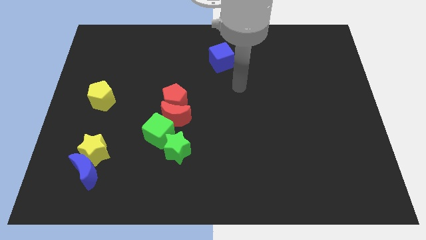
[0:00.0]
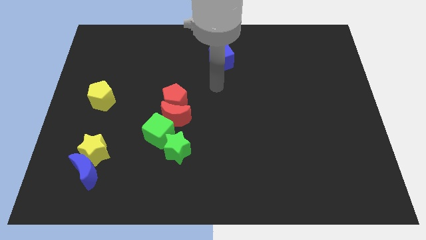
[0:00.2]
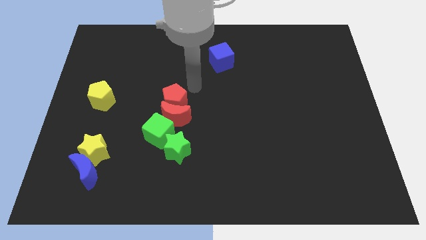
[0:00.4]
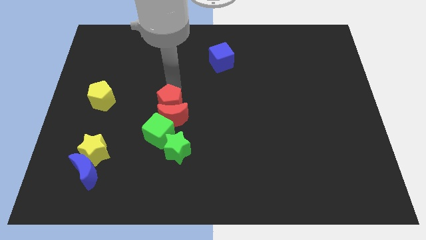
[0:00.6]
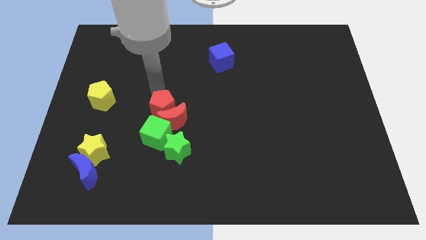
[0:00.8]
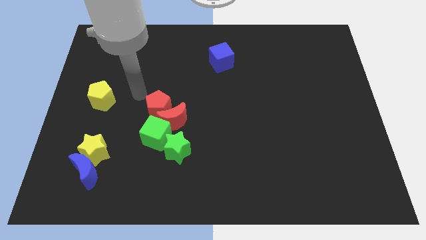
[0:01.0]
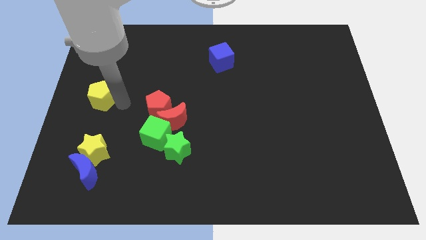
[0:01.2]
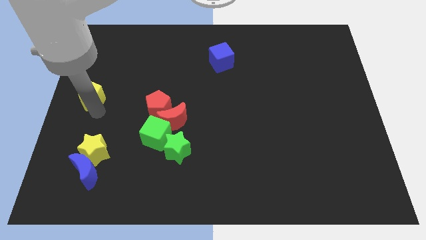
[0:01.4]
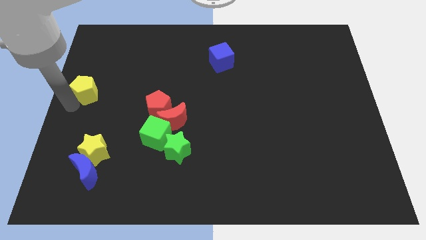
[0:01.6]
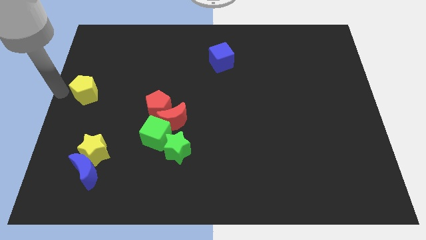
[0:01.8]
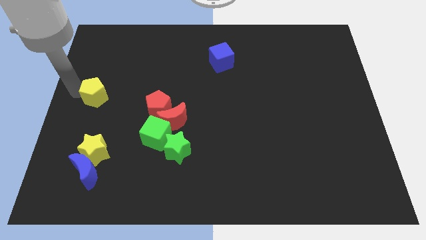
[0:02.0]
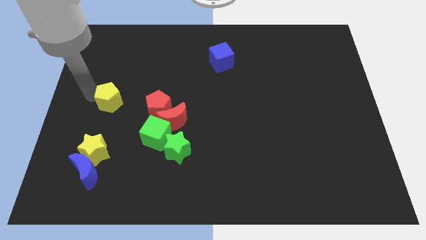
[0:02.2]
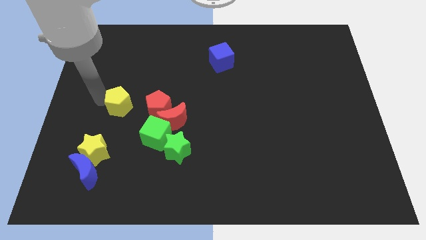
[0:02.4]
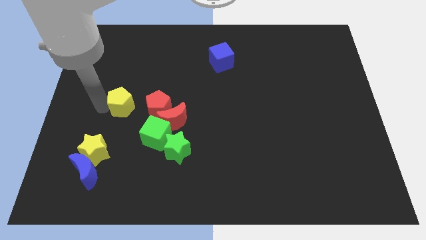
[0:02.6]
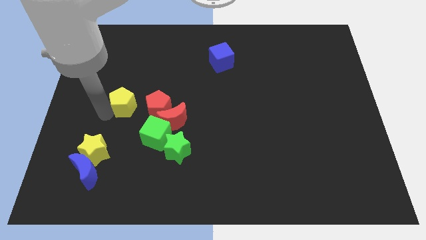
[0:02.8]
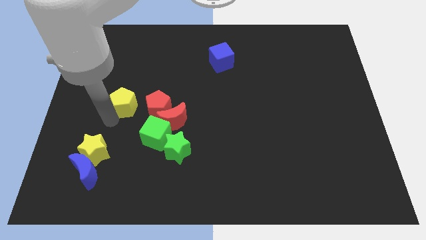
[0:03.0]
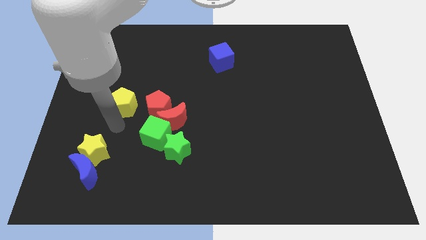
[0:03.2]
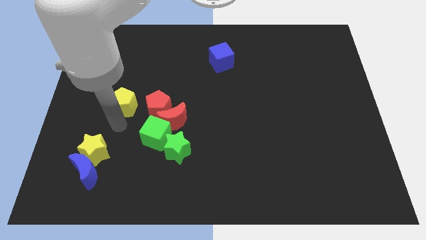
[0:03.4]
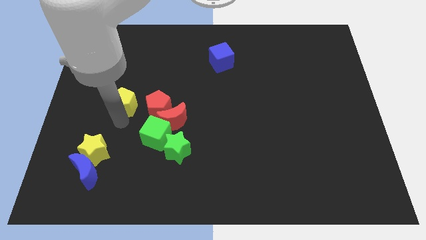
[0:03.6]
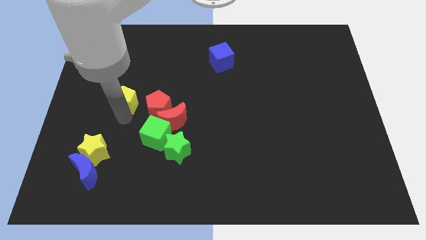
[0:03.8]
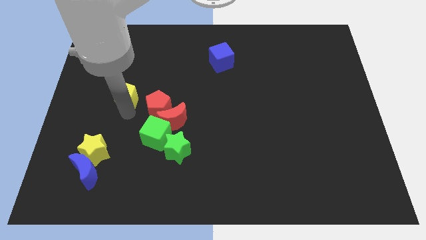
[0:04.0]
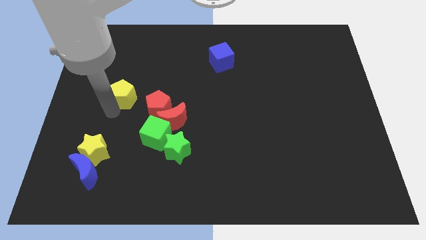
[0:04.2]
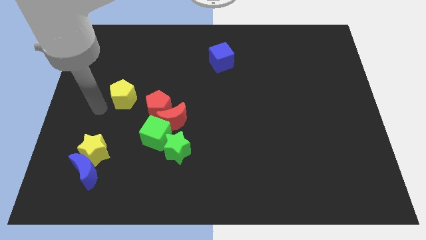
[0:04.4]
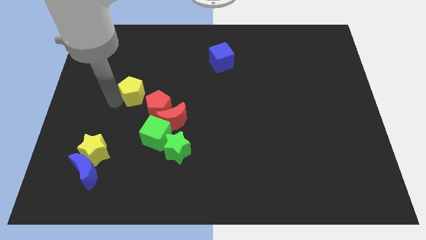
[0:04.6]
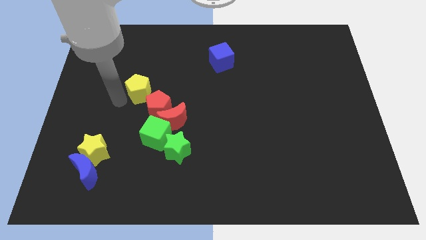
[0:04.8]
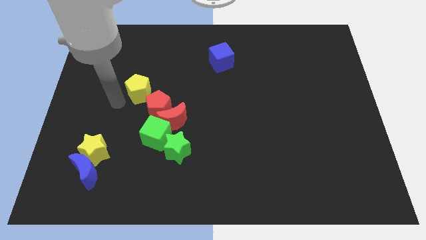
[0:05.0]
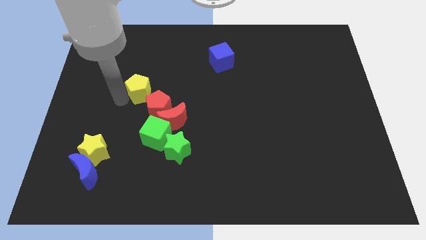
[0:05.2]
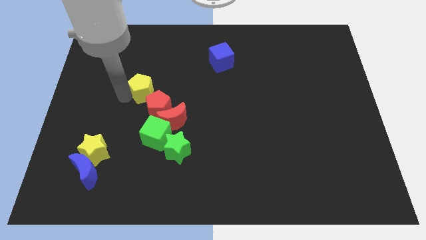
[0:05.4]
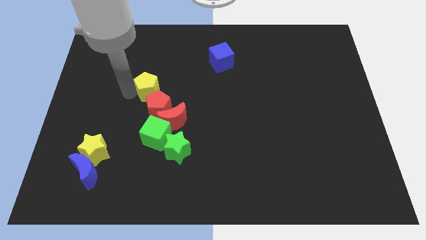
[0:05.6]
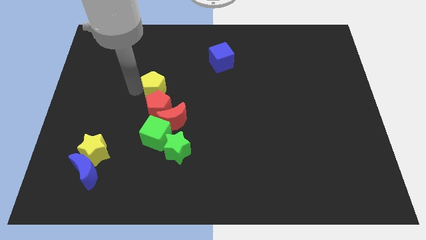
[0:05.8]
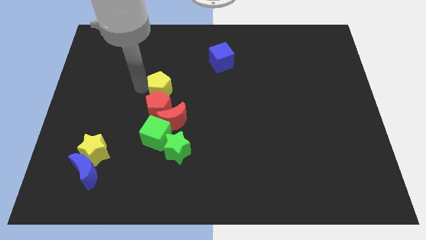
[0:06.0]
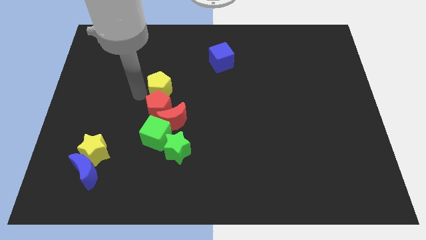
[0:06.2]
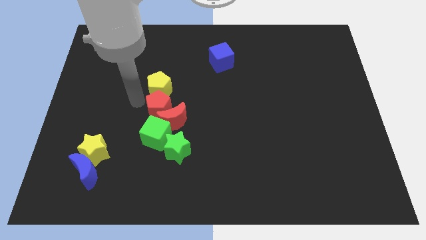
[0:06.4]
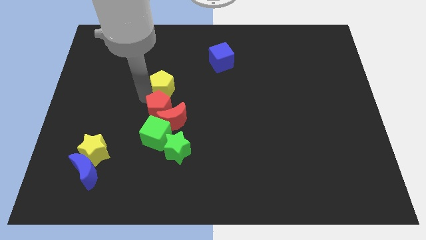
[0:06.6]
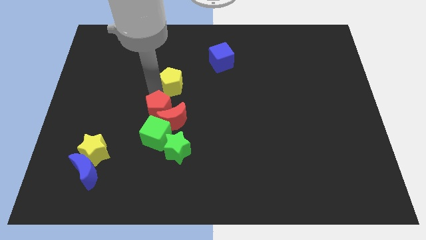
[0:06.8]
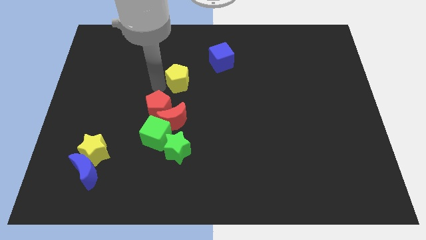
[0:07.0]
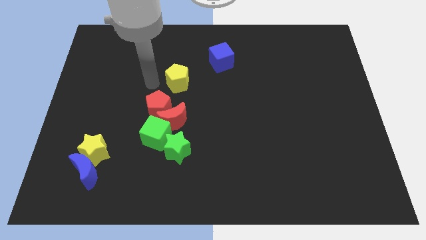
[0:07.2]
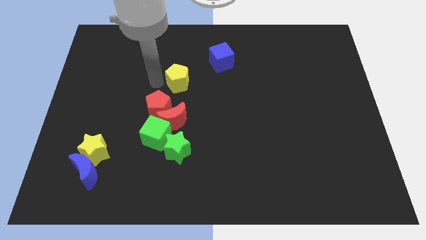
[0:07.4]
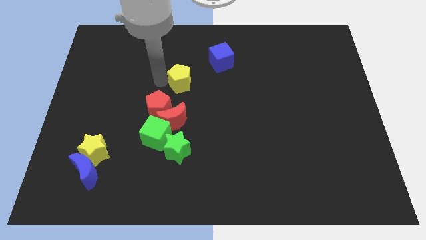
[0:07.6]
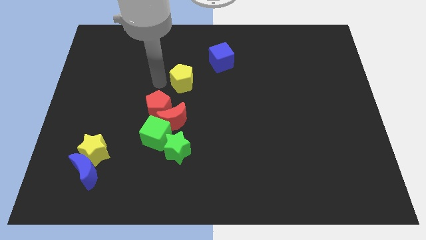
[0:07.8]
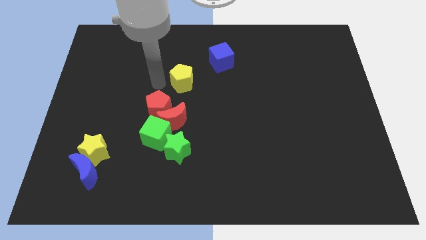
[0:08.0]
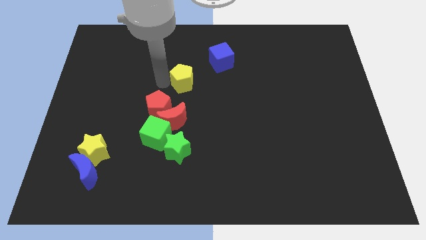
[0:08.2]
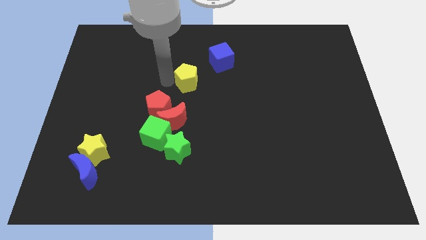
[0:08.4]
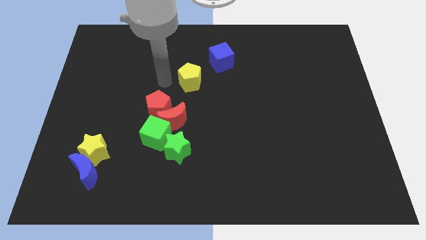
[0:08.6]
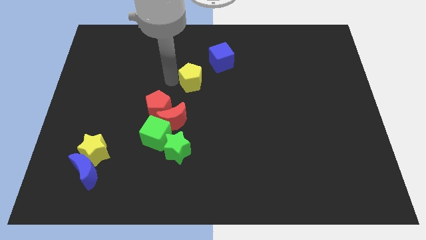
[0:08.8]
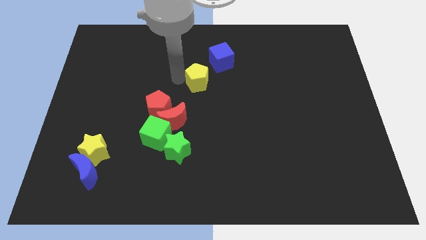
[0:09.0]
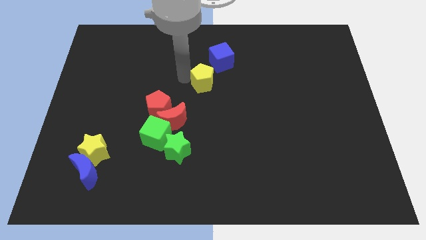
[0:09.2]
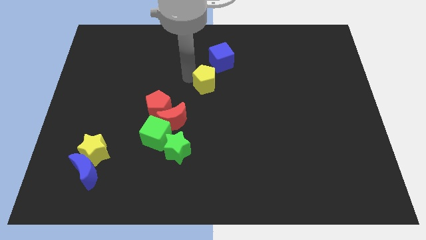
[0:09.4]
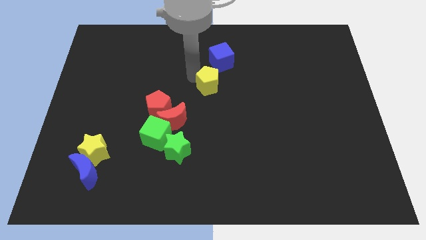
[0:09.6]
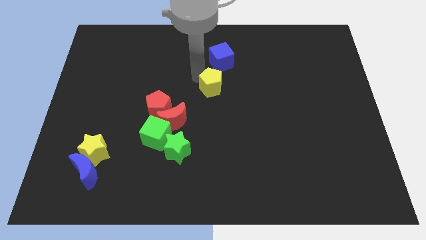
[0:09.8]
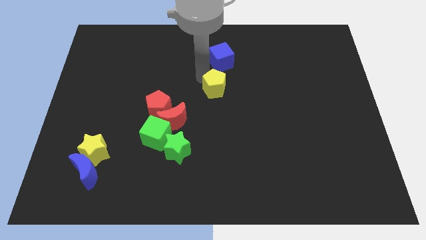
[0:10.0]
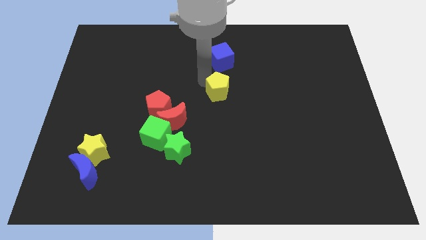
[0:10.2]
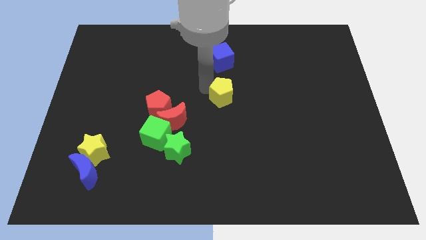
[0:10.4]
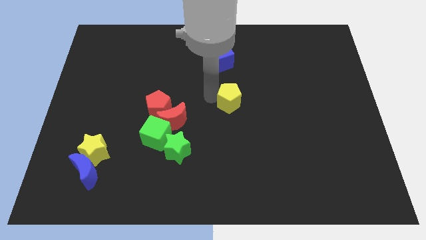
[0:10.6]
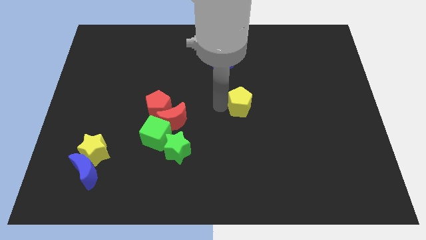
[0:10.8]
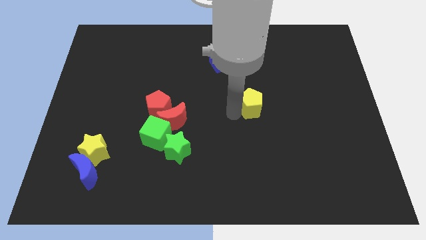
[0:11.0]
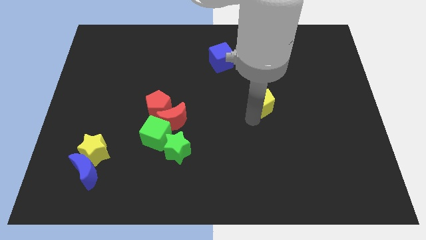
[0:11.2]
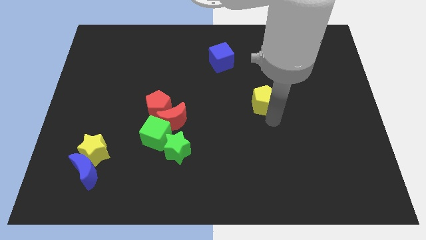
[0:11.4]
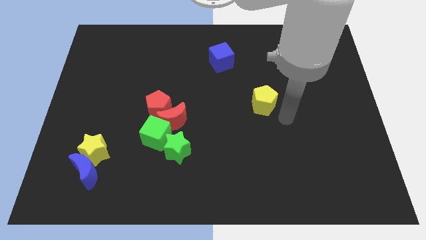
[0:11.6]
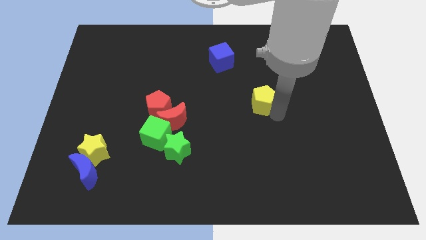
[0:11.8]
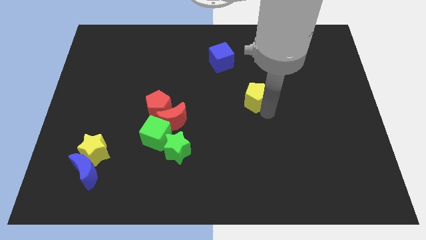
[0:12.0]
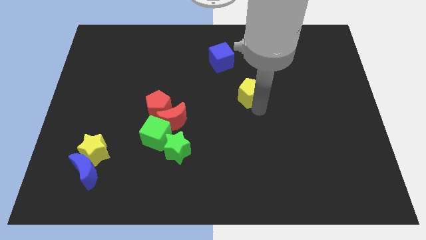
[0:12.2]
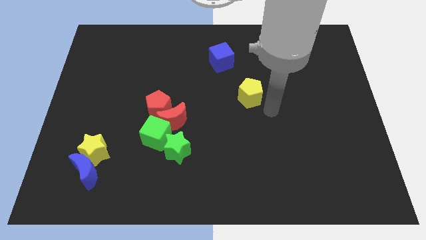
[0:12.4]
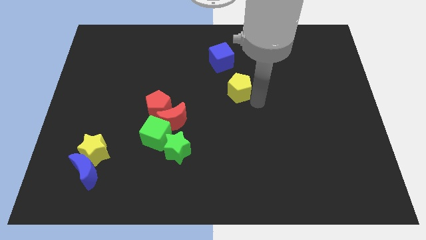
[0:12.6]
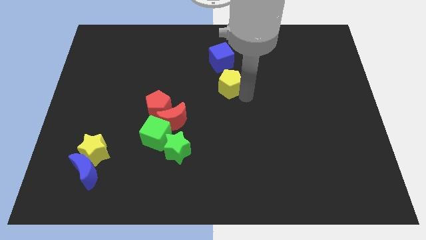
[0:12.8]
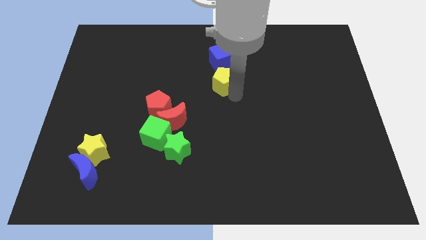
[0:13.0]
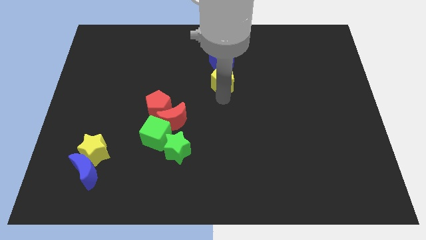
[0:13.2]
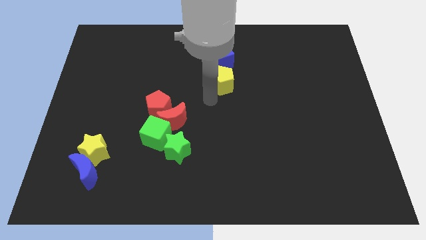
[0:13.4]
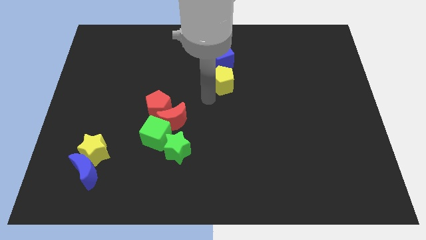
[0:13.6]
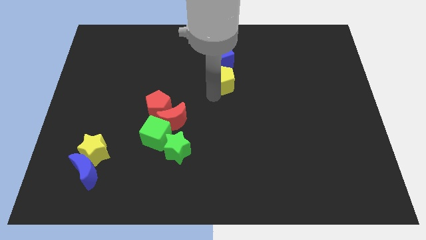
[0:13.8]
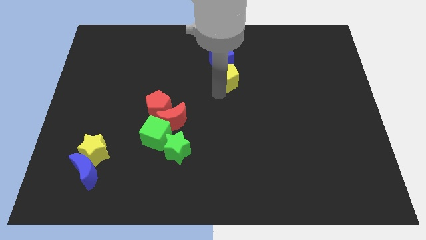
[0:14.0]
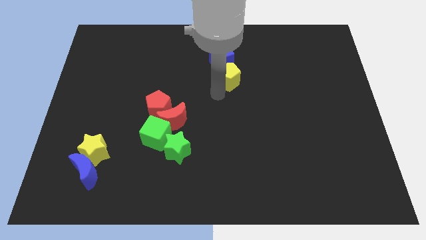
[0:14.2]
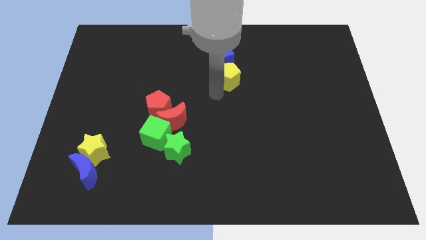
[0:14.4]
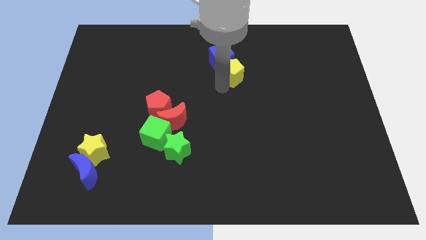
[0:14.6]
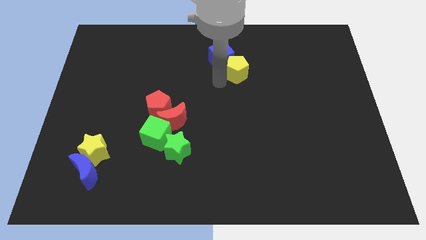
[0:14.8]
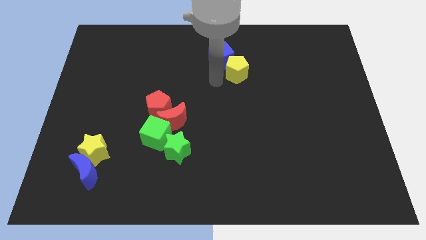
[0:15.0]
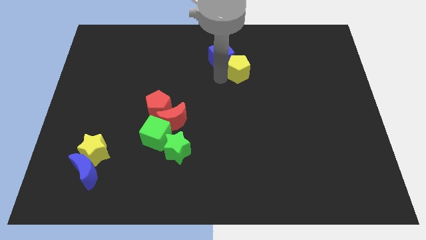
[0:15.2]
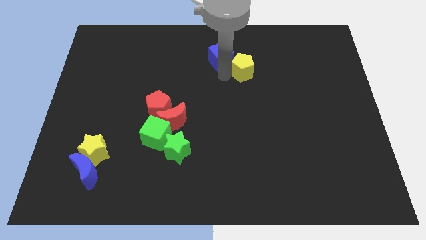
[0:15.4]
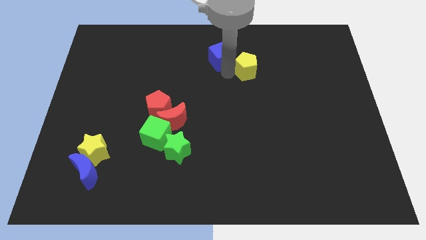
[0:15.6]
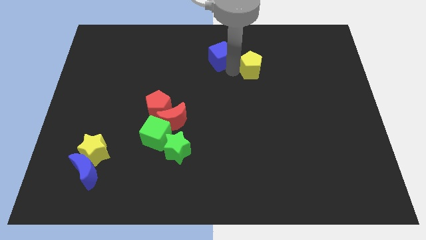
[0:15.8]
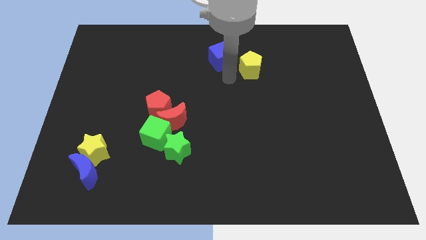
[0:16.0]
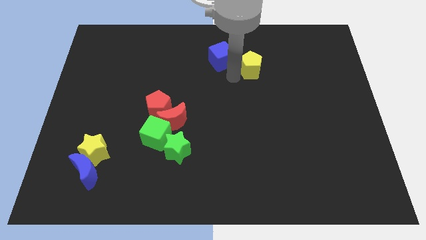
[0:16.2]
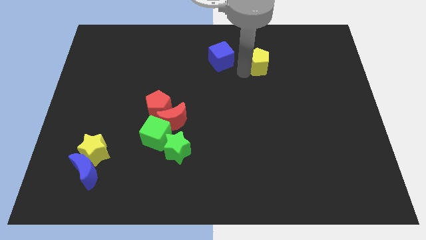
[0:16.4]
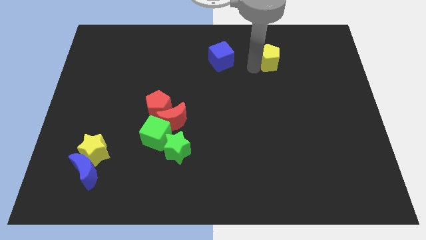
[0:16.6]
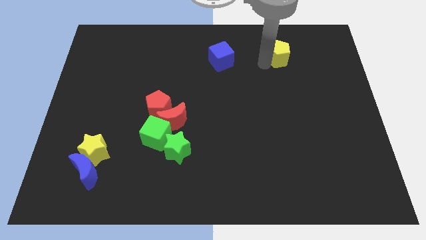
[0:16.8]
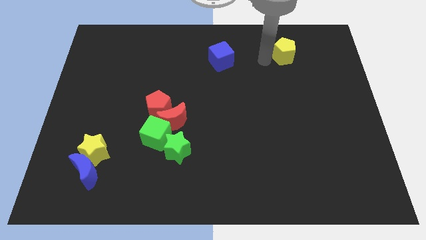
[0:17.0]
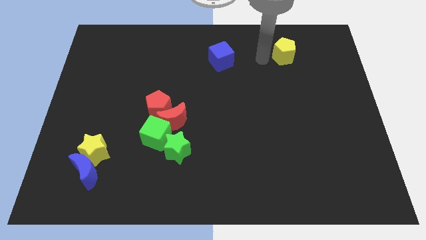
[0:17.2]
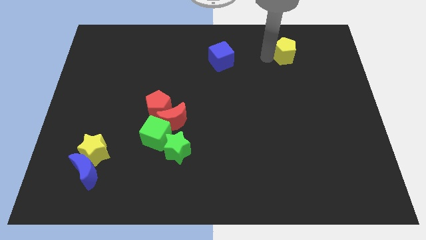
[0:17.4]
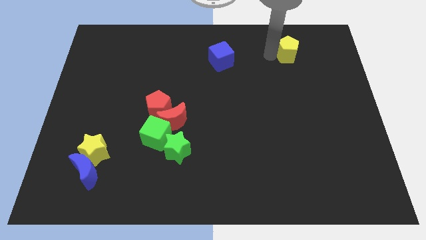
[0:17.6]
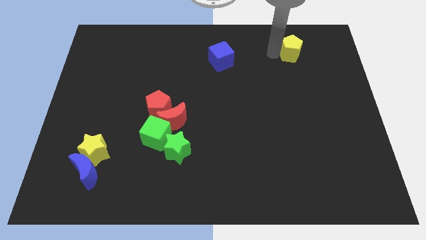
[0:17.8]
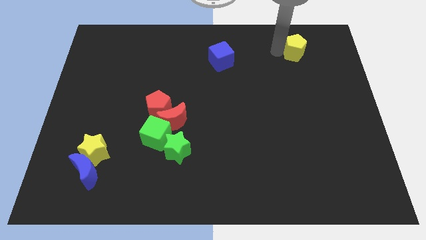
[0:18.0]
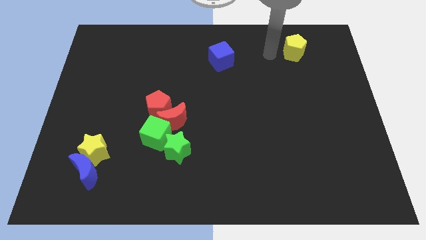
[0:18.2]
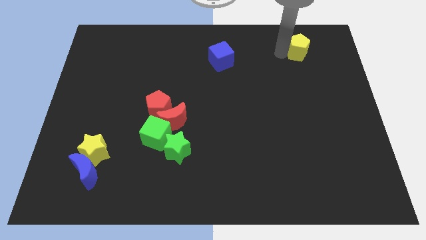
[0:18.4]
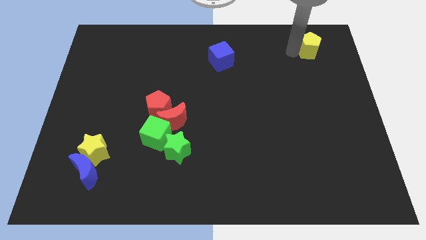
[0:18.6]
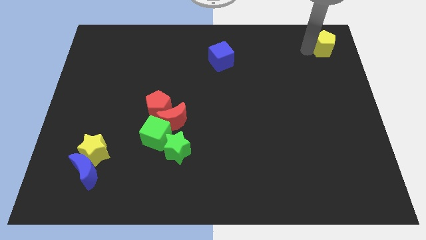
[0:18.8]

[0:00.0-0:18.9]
push the yellow pentagon to the top right corner
